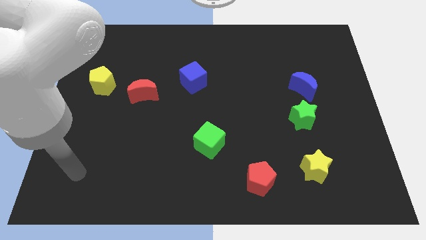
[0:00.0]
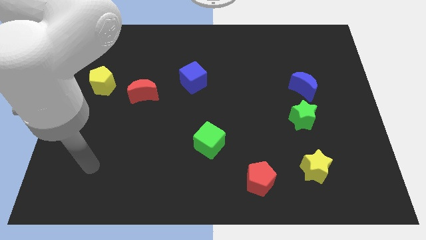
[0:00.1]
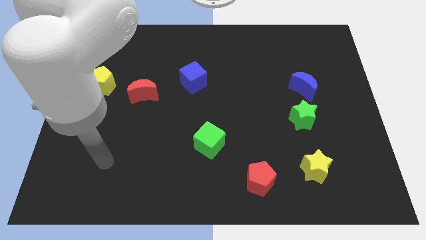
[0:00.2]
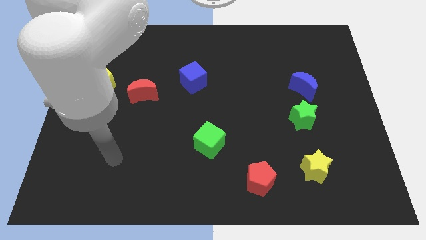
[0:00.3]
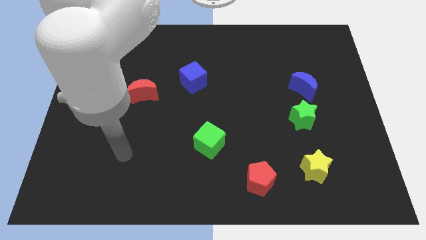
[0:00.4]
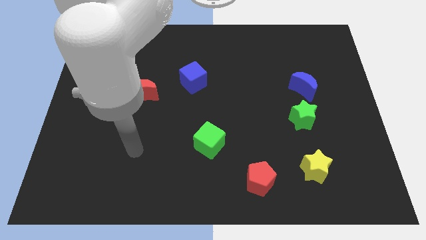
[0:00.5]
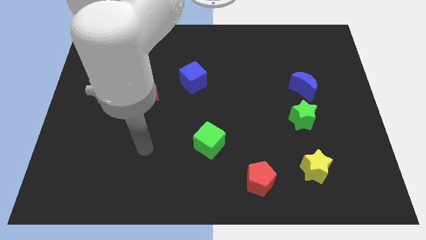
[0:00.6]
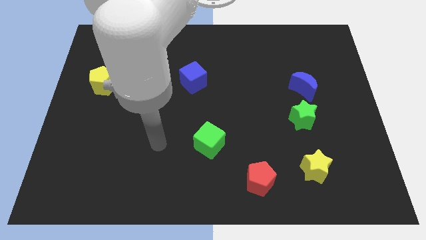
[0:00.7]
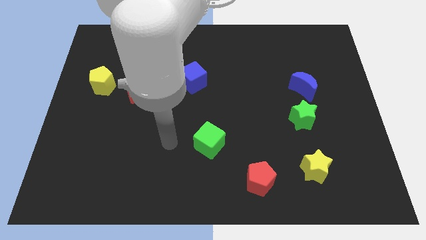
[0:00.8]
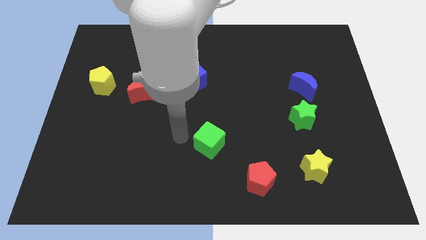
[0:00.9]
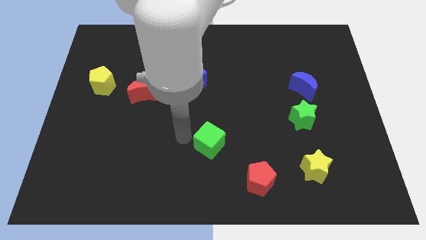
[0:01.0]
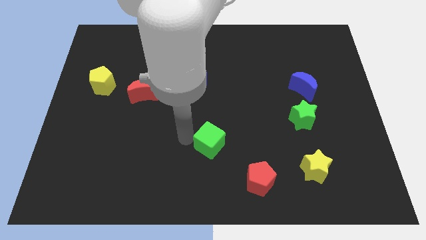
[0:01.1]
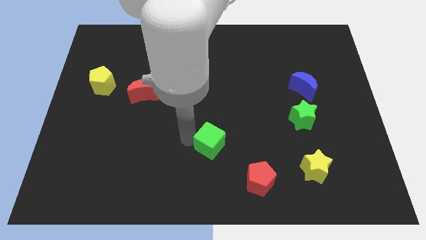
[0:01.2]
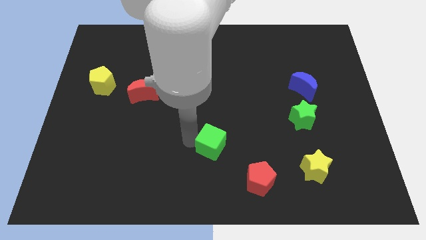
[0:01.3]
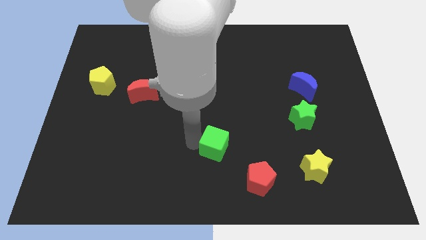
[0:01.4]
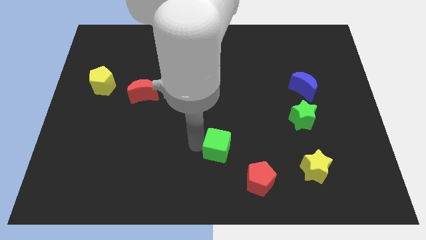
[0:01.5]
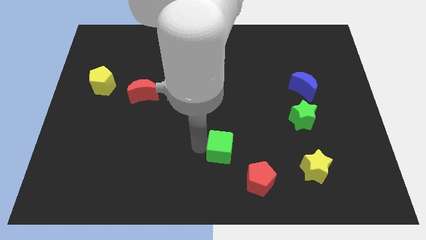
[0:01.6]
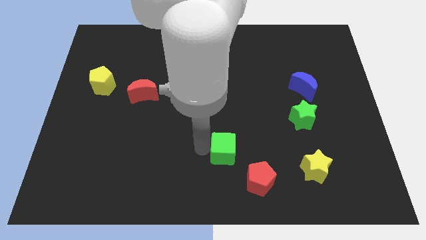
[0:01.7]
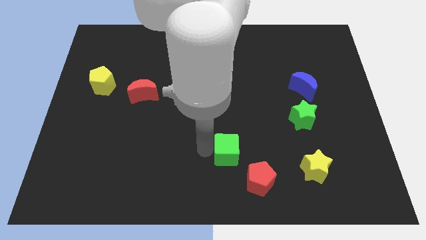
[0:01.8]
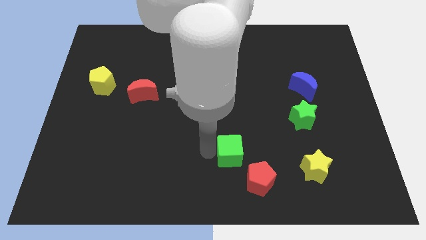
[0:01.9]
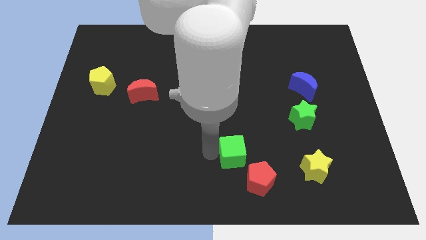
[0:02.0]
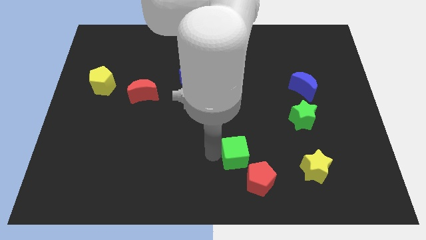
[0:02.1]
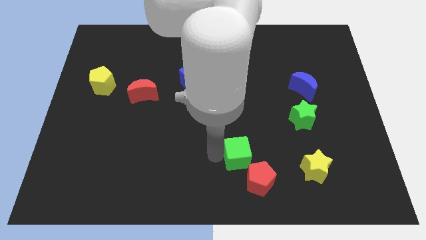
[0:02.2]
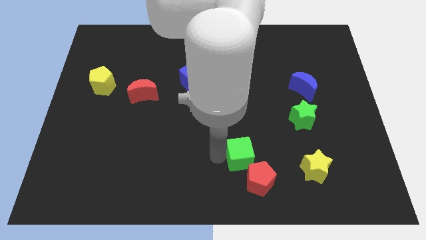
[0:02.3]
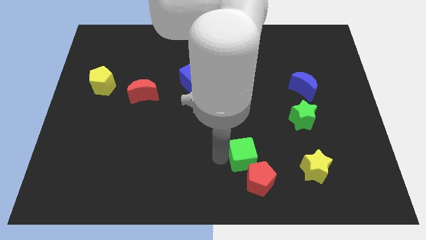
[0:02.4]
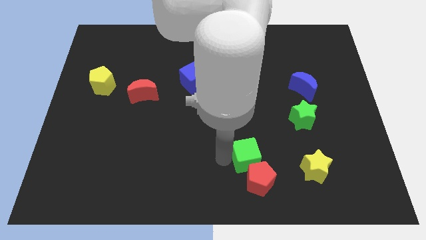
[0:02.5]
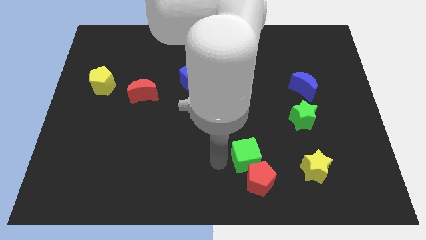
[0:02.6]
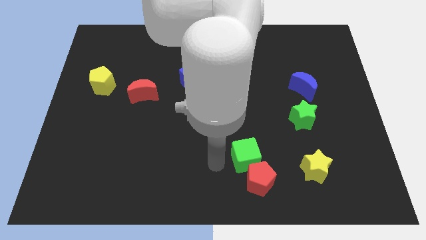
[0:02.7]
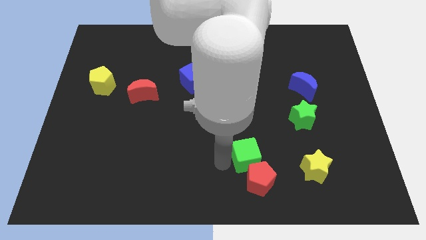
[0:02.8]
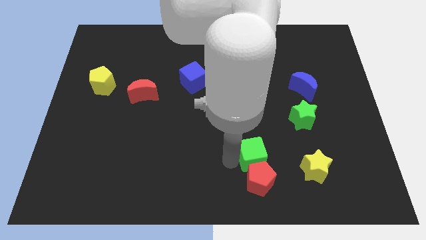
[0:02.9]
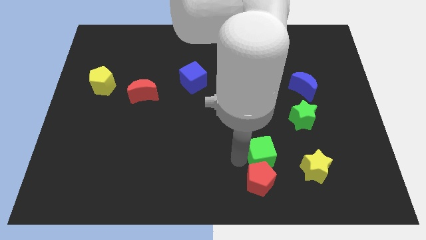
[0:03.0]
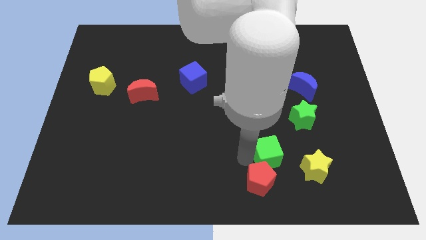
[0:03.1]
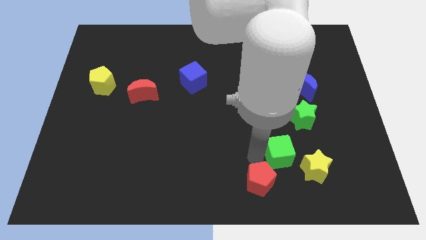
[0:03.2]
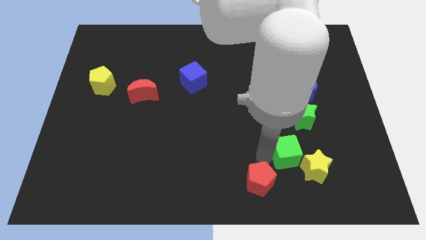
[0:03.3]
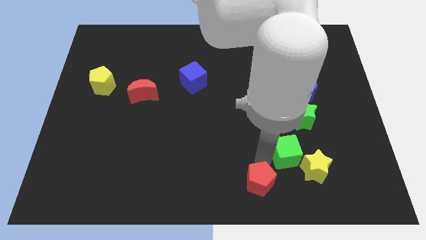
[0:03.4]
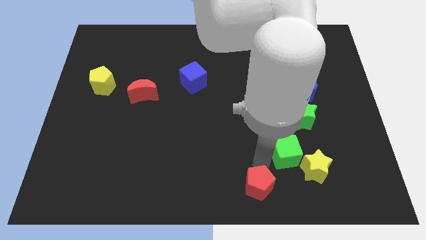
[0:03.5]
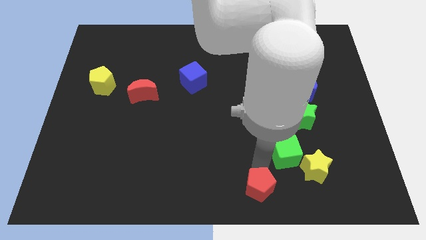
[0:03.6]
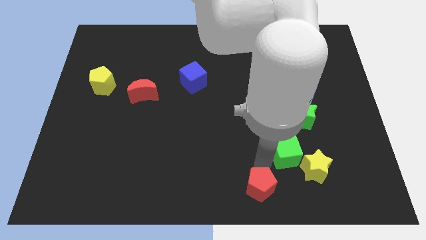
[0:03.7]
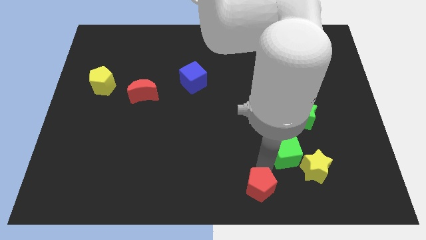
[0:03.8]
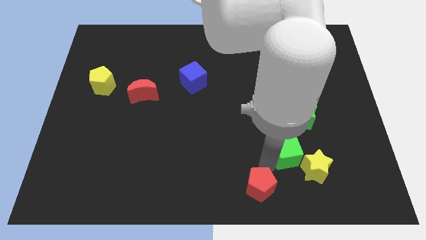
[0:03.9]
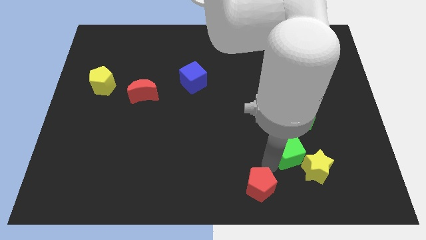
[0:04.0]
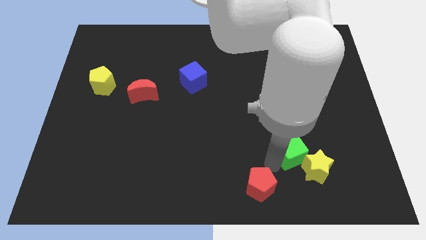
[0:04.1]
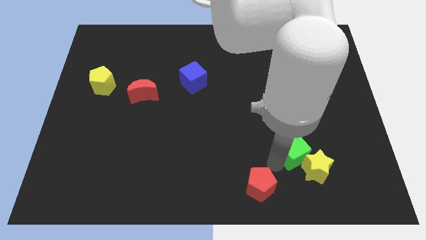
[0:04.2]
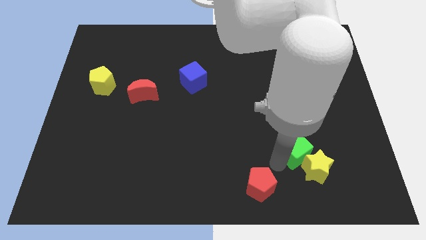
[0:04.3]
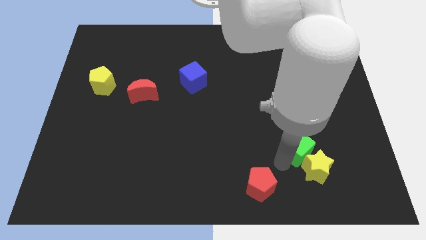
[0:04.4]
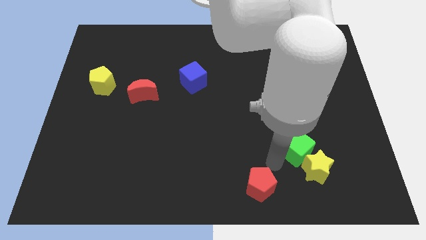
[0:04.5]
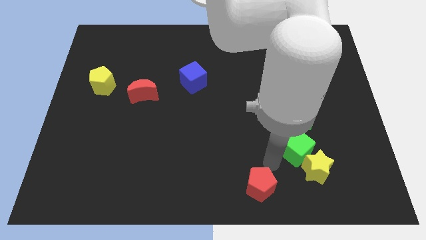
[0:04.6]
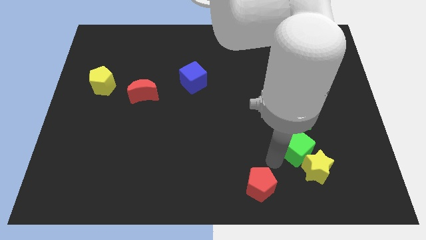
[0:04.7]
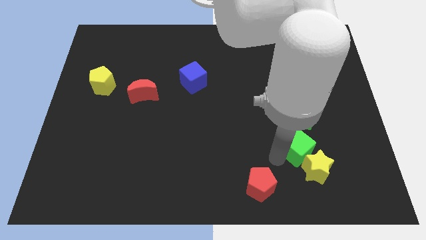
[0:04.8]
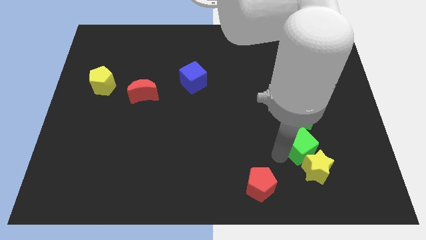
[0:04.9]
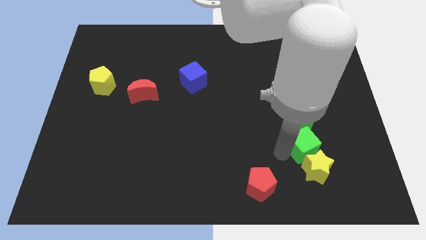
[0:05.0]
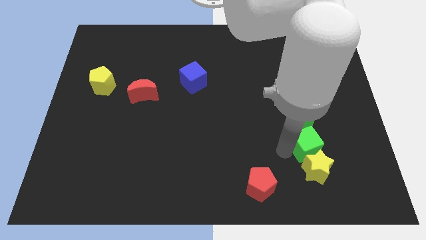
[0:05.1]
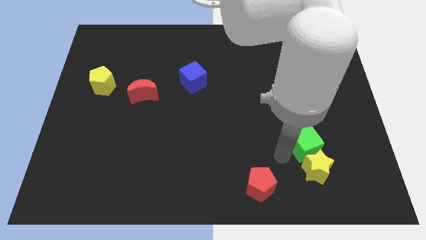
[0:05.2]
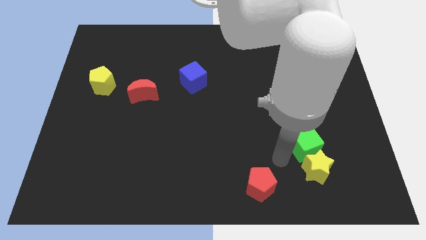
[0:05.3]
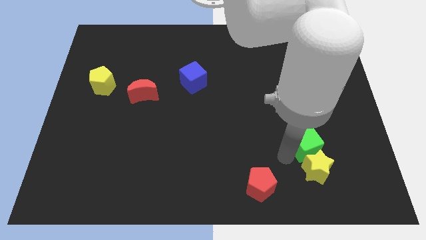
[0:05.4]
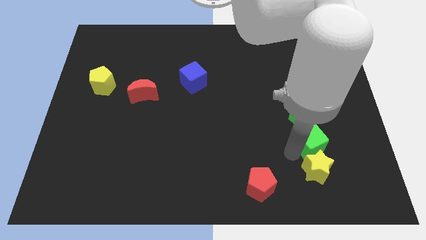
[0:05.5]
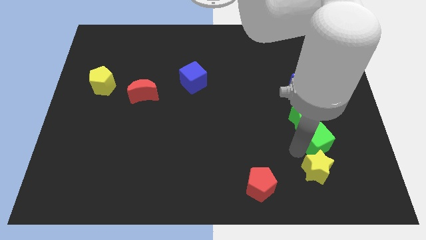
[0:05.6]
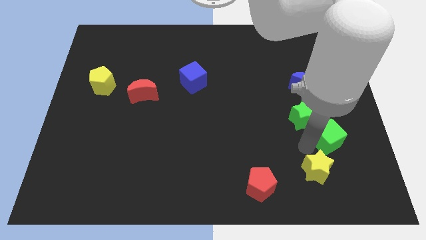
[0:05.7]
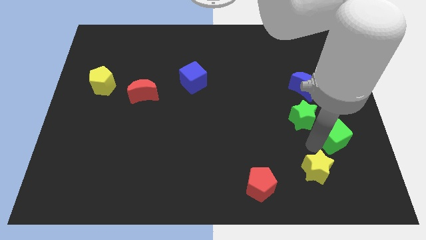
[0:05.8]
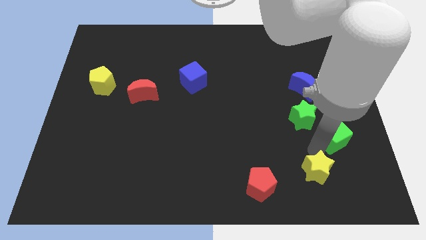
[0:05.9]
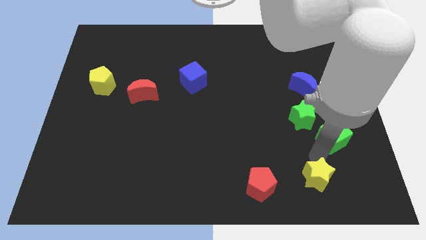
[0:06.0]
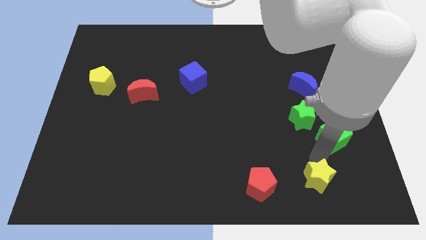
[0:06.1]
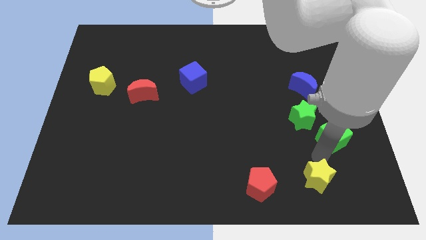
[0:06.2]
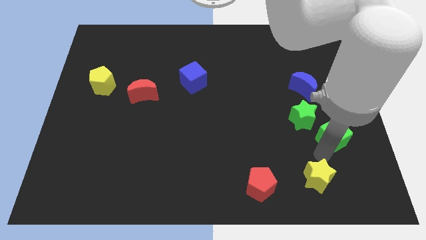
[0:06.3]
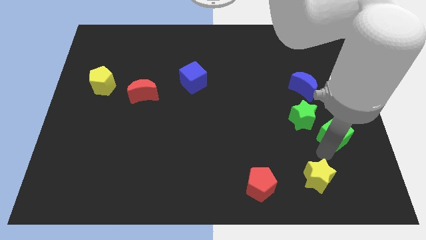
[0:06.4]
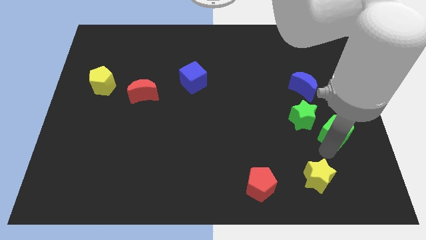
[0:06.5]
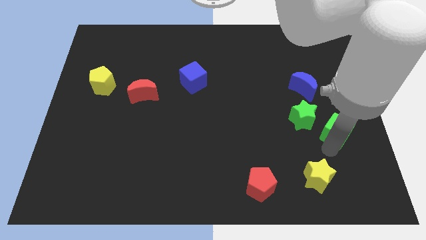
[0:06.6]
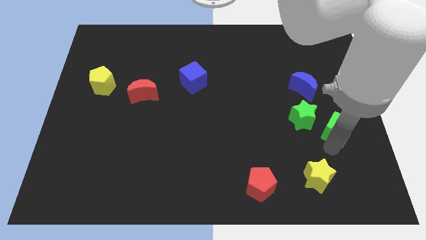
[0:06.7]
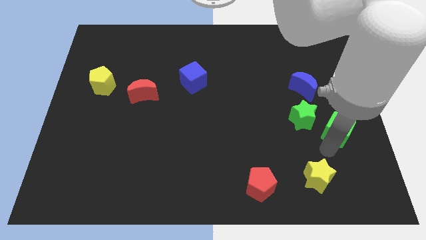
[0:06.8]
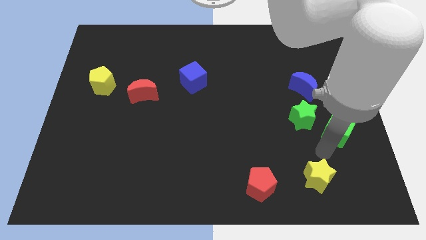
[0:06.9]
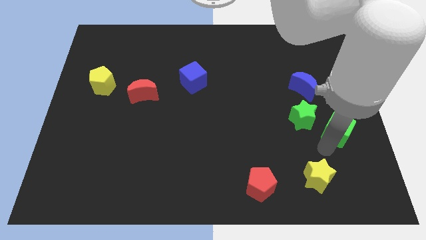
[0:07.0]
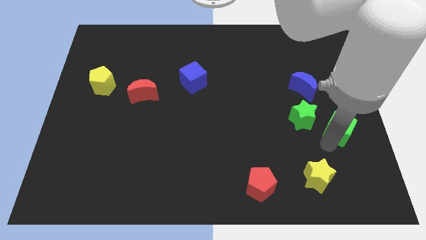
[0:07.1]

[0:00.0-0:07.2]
slide the green cube to the center right
